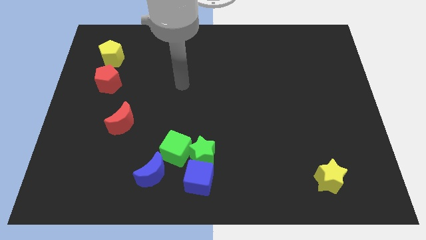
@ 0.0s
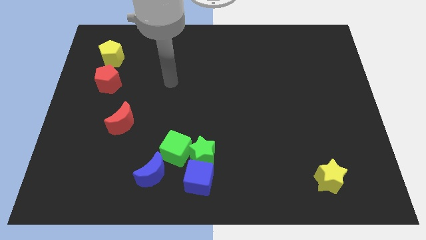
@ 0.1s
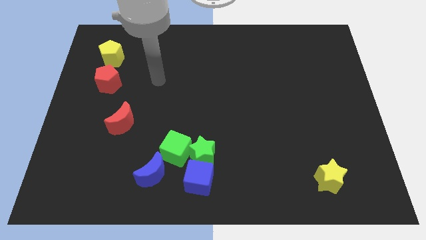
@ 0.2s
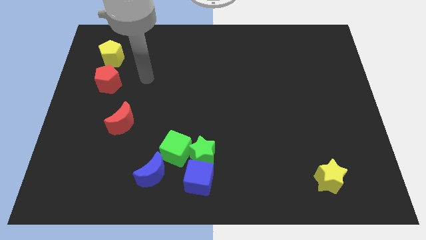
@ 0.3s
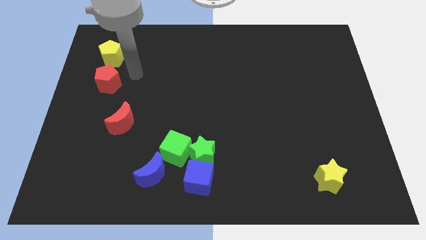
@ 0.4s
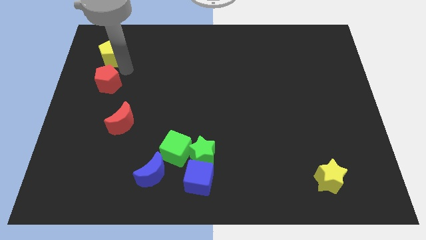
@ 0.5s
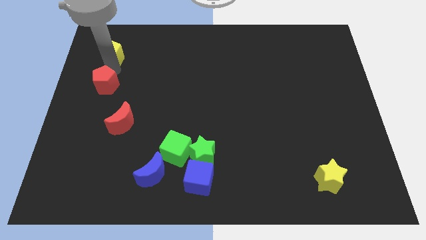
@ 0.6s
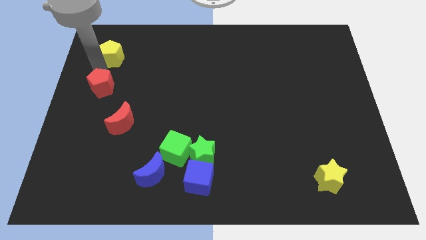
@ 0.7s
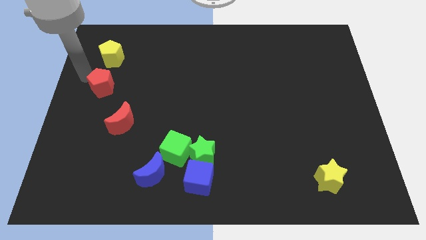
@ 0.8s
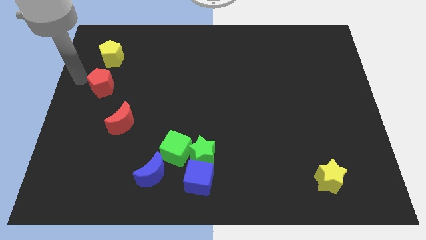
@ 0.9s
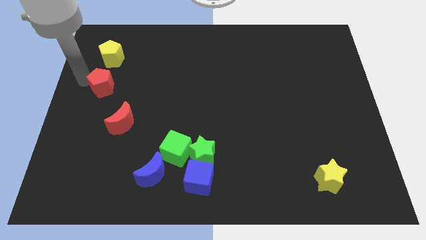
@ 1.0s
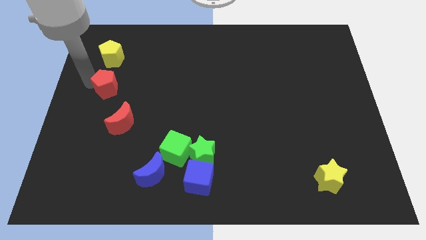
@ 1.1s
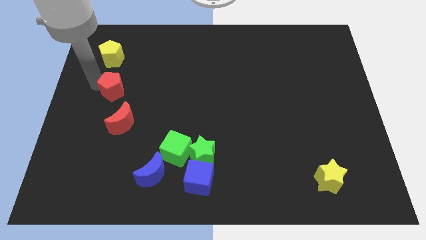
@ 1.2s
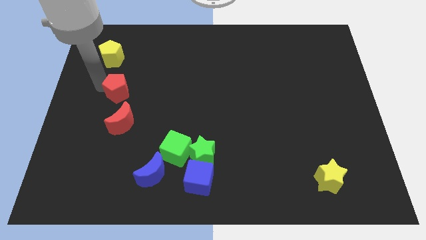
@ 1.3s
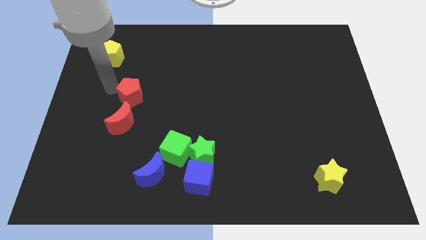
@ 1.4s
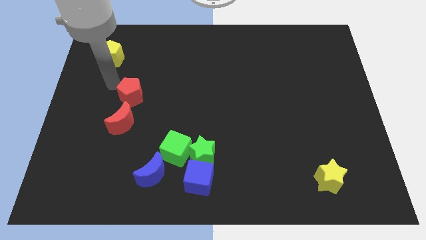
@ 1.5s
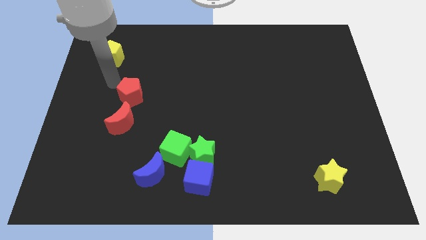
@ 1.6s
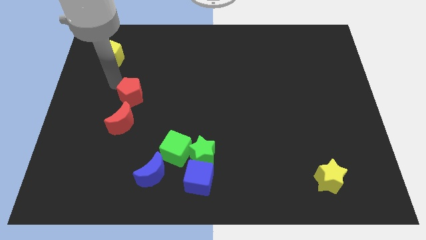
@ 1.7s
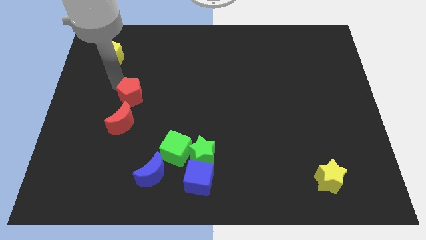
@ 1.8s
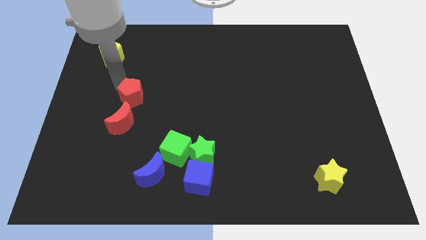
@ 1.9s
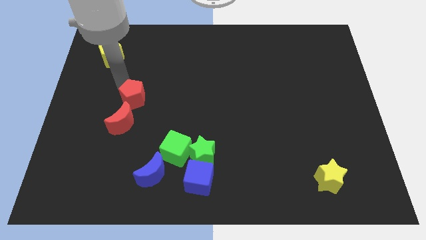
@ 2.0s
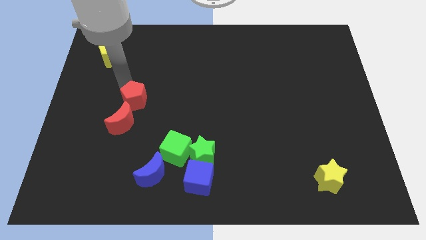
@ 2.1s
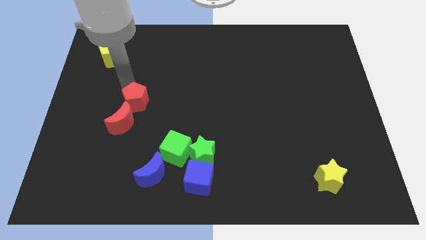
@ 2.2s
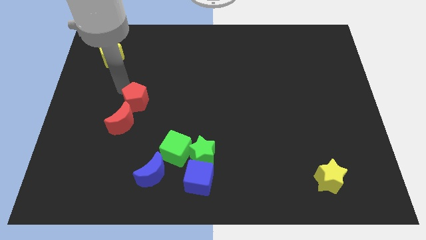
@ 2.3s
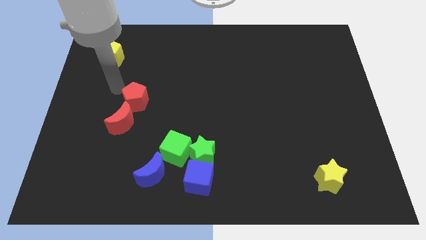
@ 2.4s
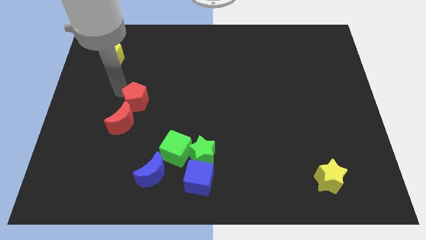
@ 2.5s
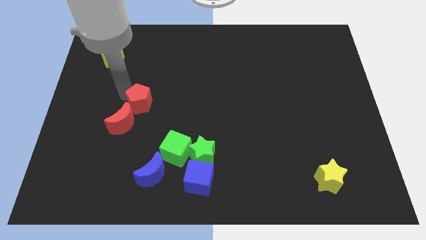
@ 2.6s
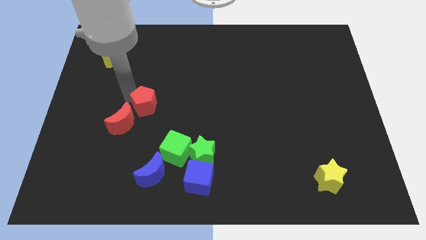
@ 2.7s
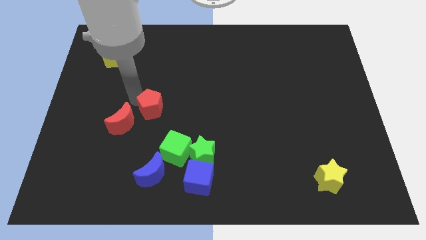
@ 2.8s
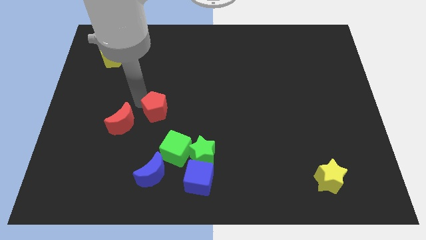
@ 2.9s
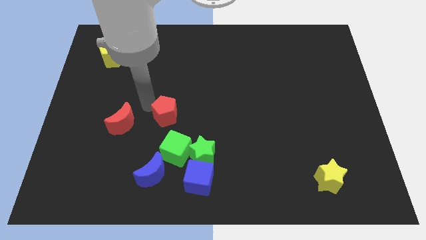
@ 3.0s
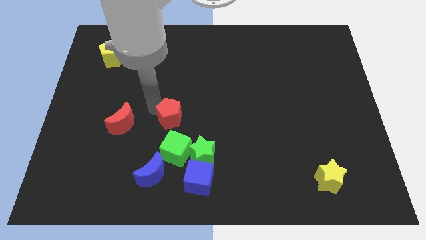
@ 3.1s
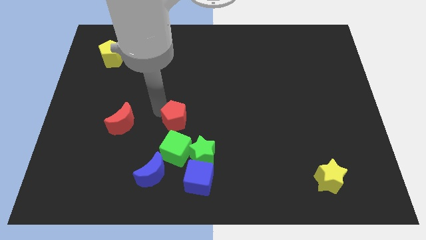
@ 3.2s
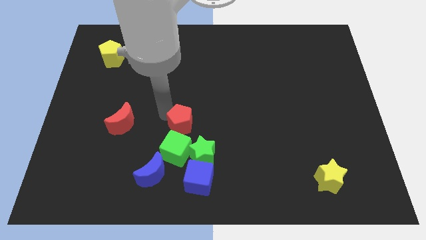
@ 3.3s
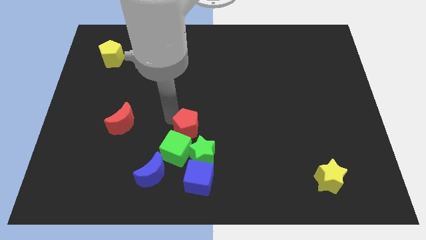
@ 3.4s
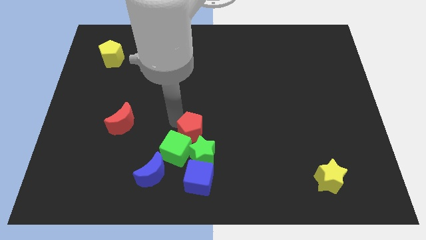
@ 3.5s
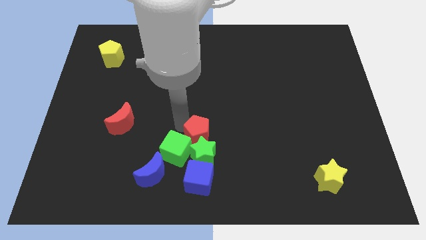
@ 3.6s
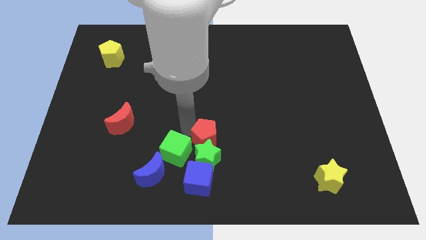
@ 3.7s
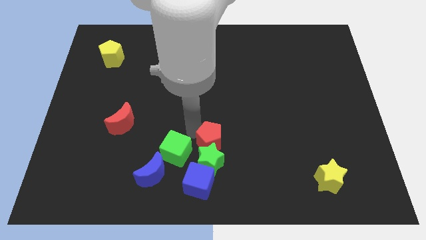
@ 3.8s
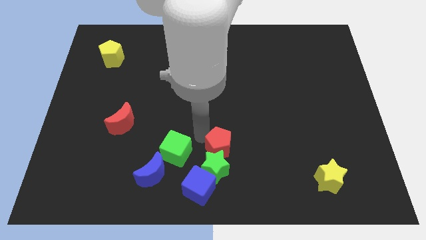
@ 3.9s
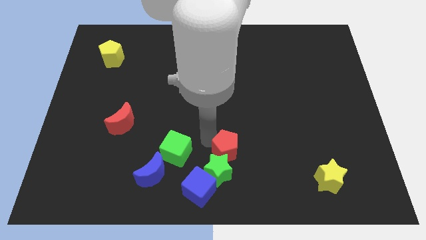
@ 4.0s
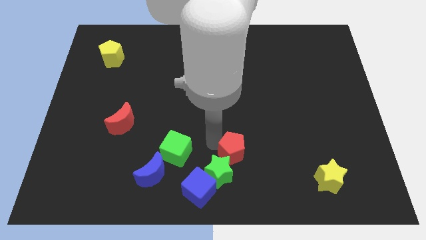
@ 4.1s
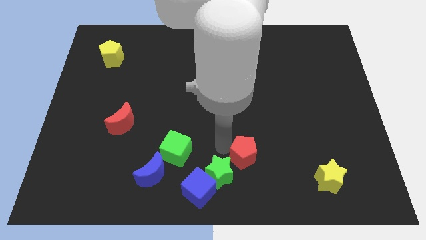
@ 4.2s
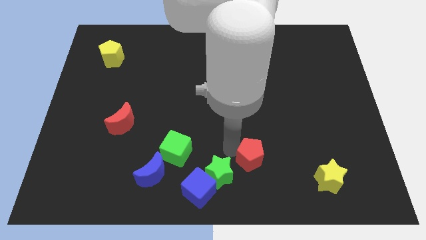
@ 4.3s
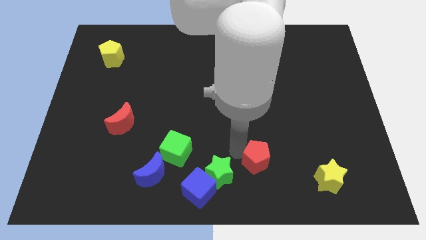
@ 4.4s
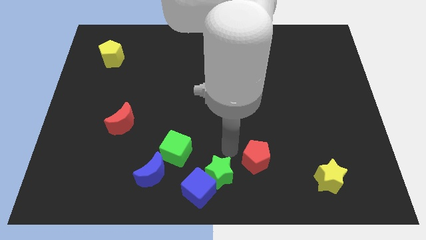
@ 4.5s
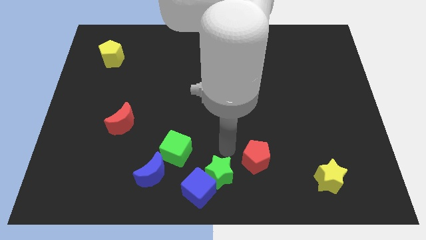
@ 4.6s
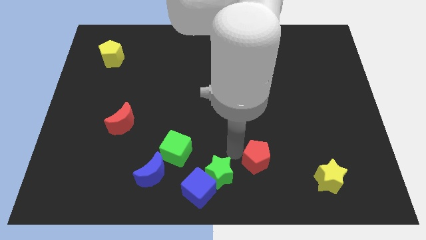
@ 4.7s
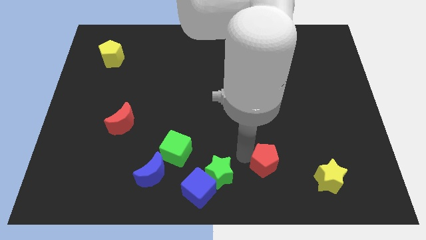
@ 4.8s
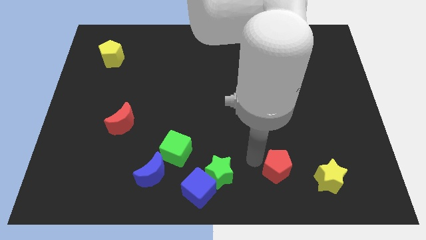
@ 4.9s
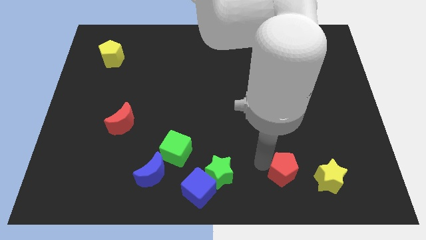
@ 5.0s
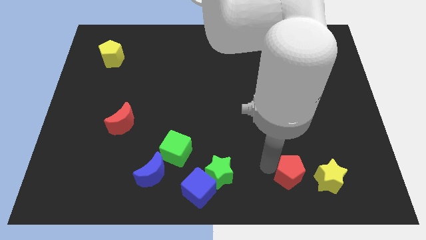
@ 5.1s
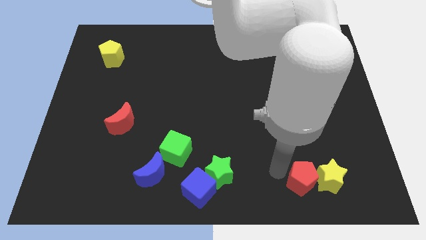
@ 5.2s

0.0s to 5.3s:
move the red pentagon next to the yellow star

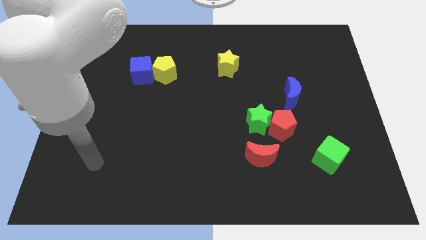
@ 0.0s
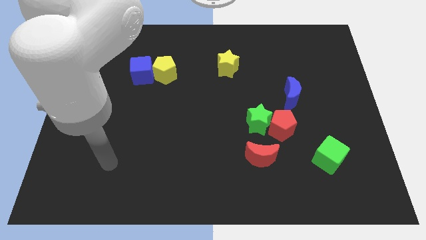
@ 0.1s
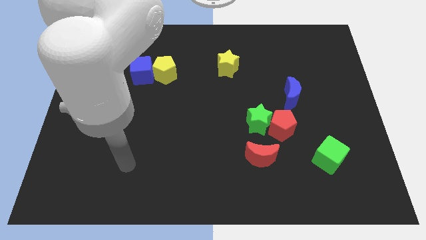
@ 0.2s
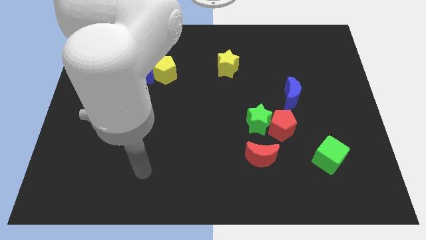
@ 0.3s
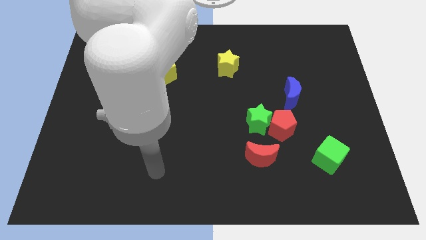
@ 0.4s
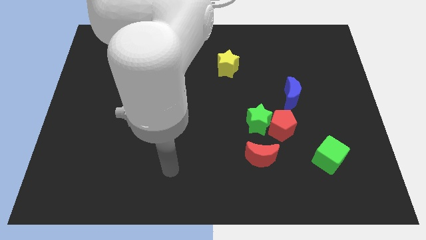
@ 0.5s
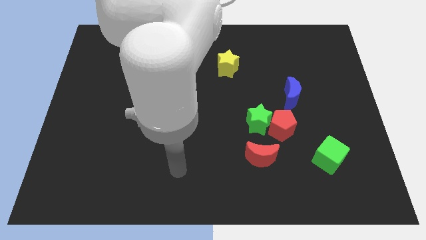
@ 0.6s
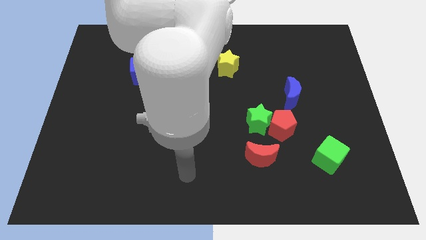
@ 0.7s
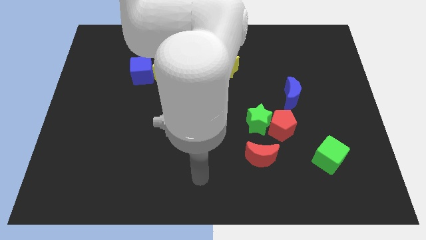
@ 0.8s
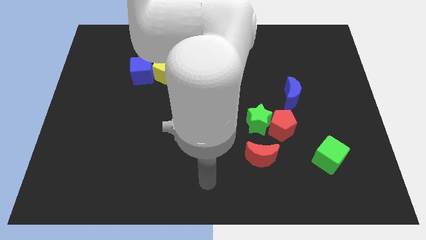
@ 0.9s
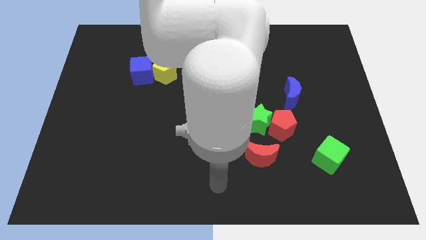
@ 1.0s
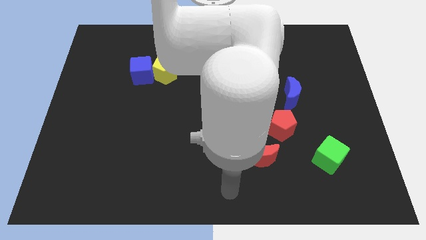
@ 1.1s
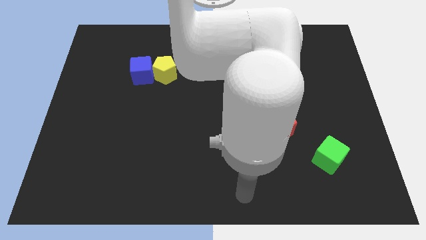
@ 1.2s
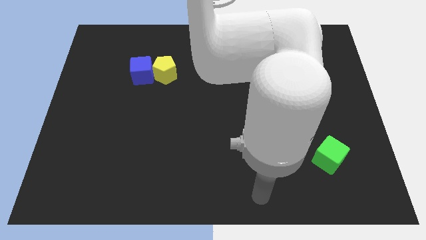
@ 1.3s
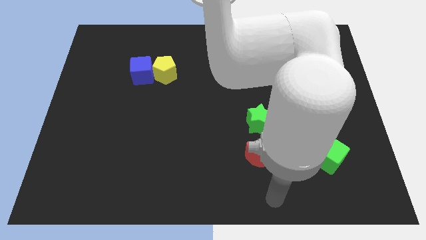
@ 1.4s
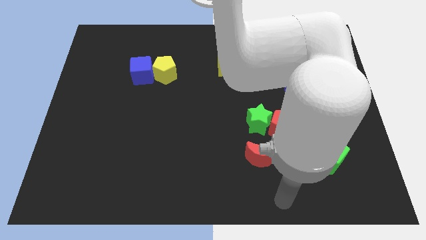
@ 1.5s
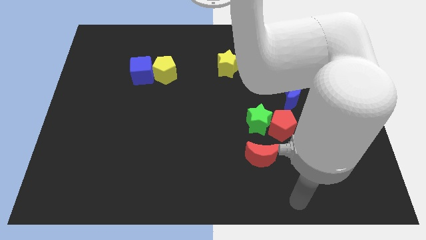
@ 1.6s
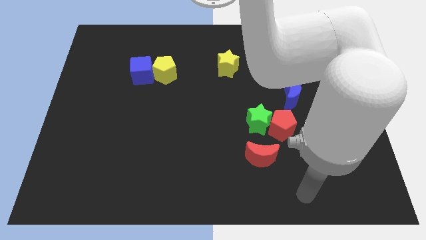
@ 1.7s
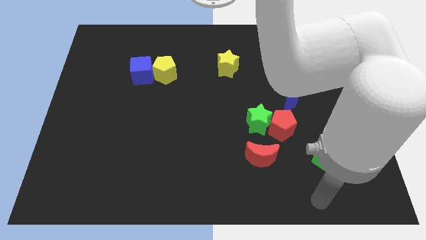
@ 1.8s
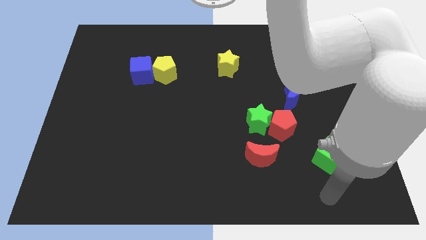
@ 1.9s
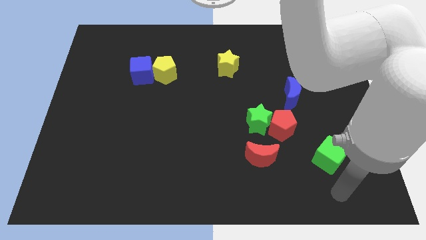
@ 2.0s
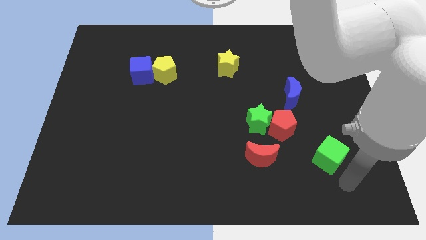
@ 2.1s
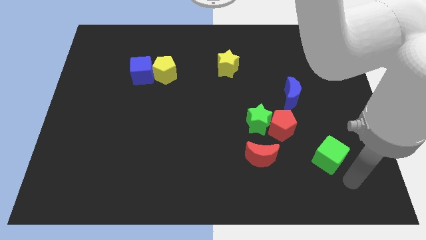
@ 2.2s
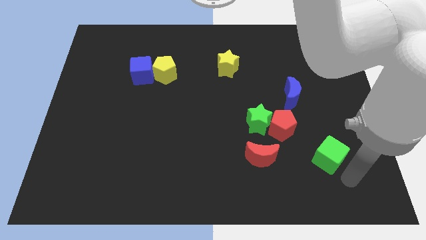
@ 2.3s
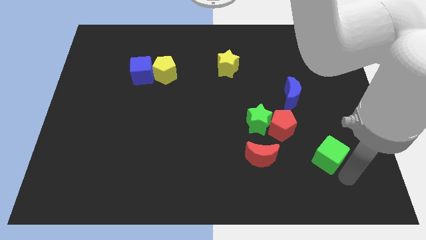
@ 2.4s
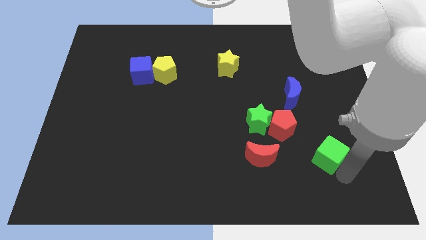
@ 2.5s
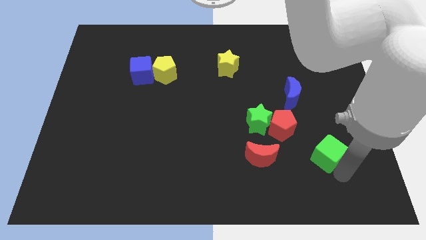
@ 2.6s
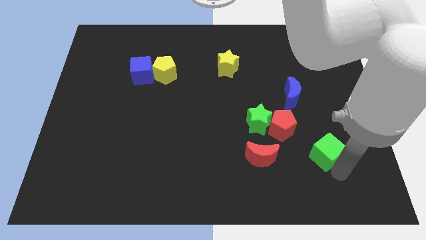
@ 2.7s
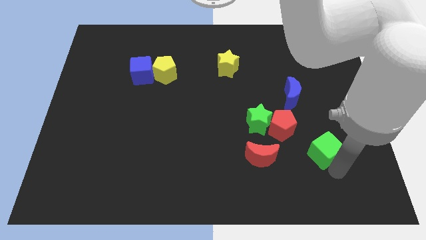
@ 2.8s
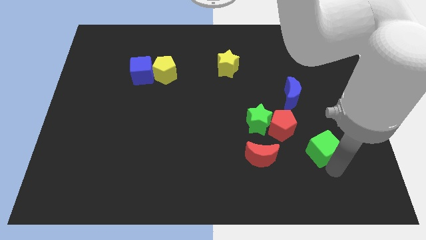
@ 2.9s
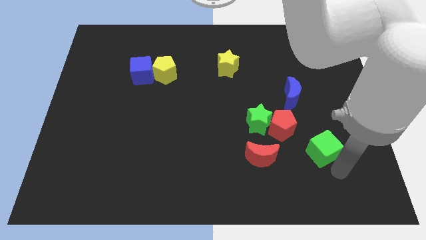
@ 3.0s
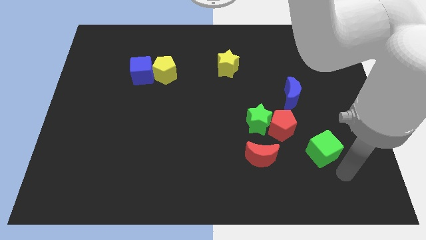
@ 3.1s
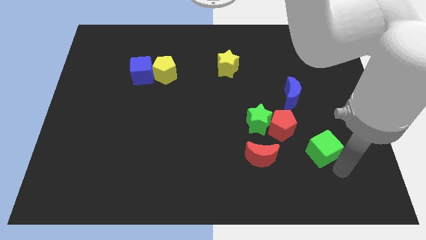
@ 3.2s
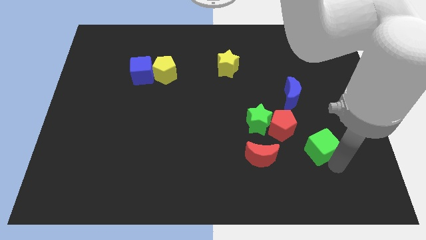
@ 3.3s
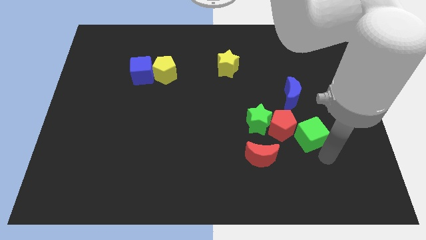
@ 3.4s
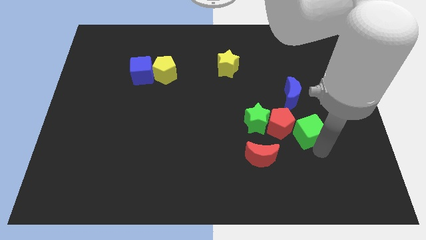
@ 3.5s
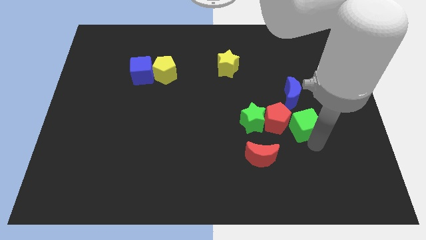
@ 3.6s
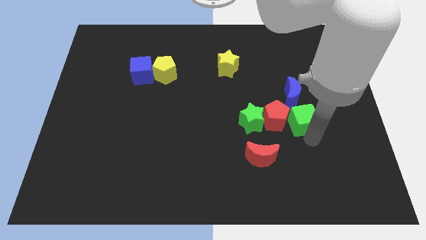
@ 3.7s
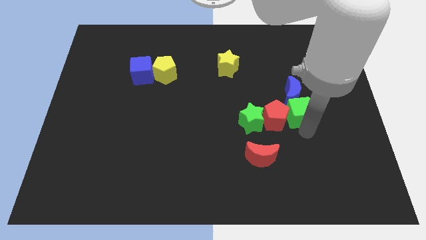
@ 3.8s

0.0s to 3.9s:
slide the green cube towards the blue moon
